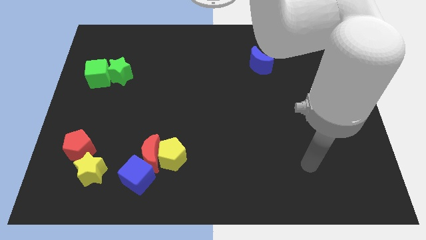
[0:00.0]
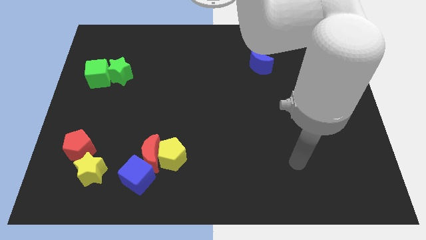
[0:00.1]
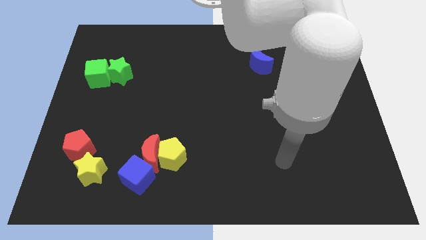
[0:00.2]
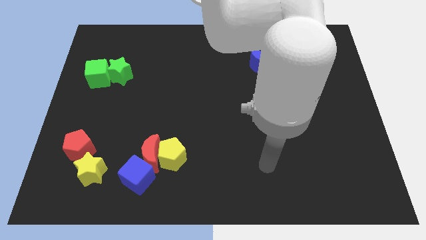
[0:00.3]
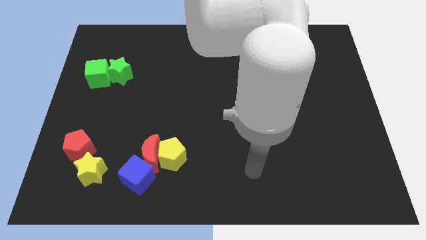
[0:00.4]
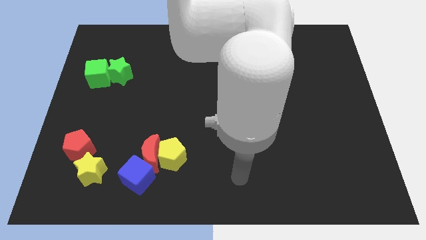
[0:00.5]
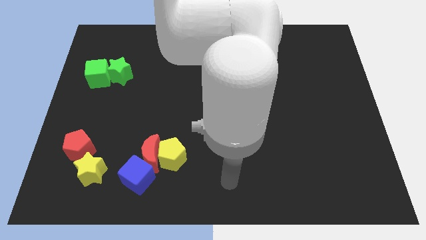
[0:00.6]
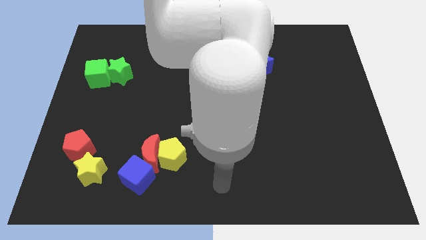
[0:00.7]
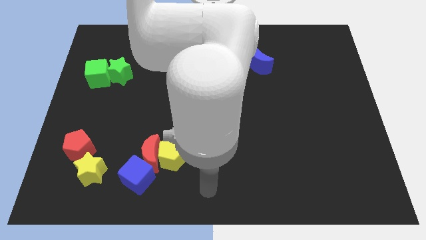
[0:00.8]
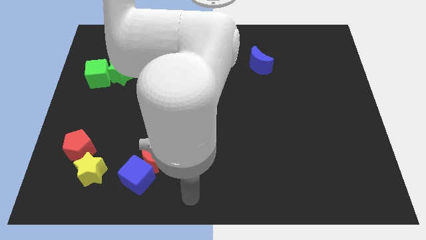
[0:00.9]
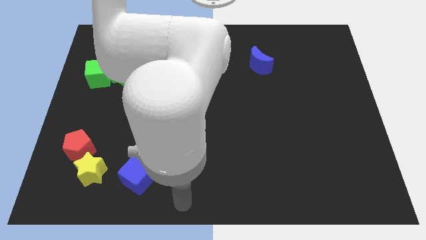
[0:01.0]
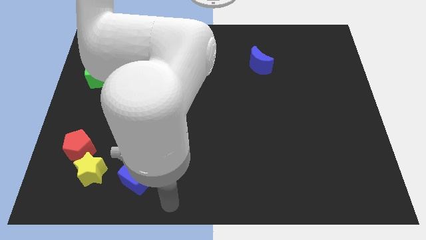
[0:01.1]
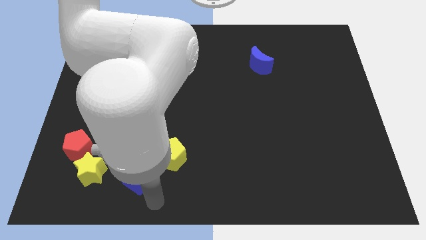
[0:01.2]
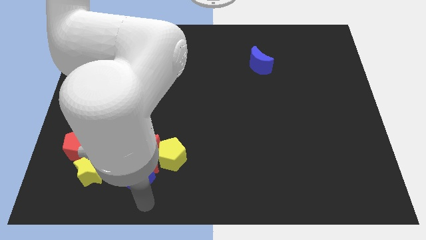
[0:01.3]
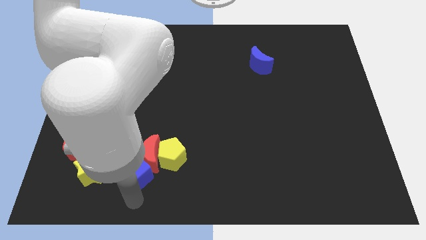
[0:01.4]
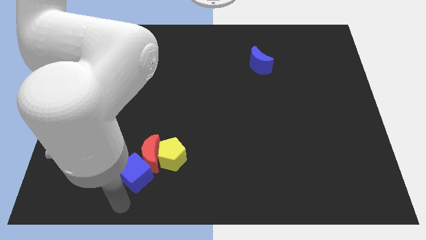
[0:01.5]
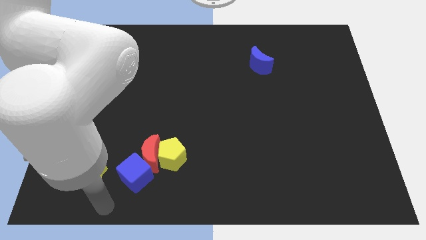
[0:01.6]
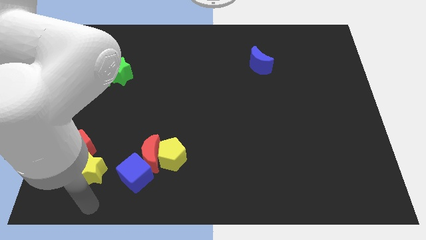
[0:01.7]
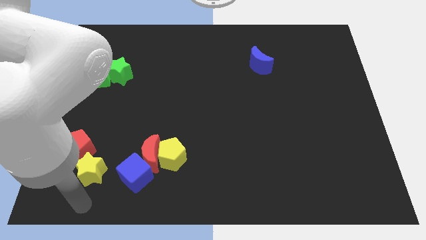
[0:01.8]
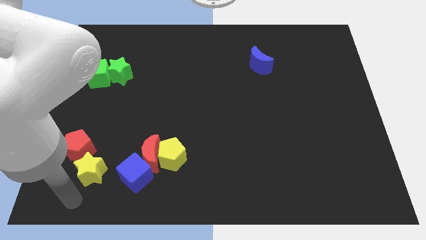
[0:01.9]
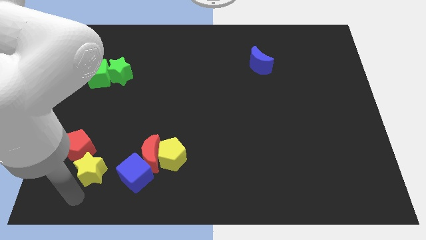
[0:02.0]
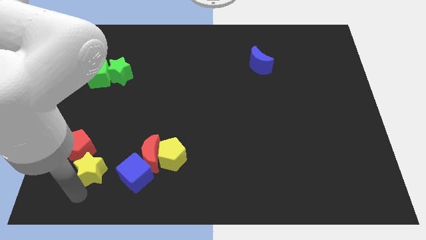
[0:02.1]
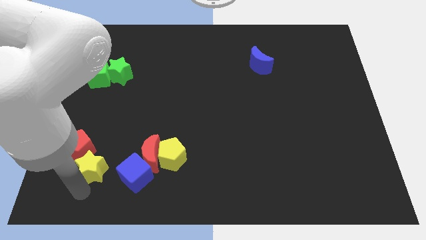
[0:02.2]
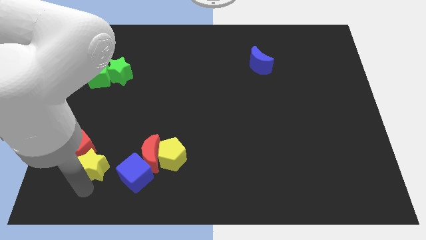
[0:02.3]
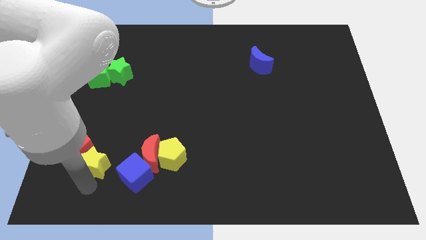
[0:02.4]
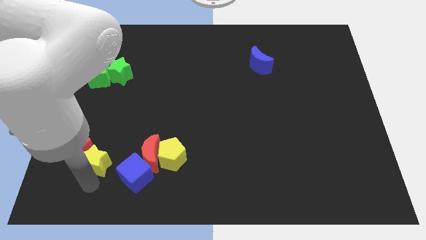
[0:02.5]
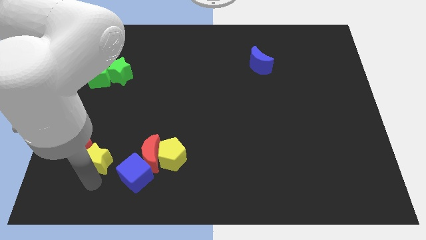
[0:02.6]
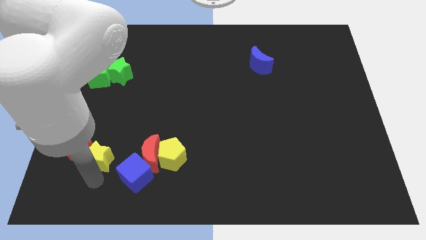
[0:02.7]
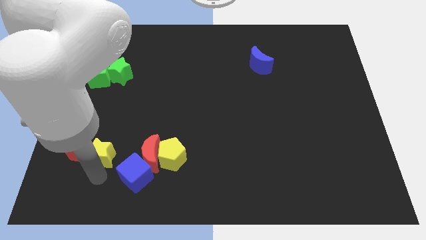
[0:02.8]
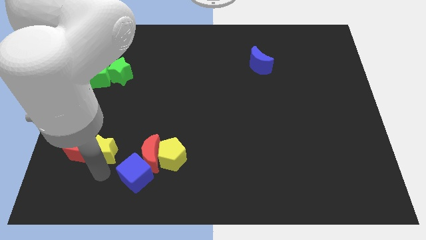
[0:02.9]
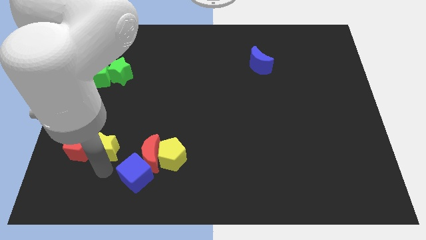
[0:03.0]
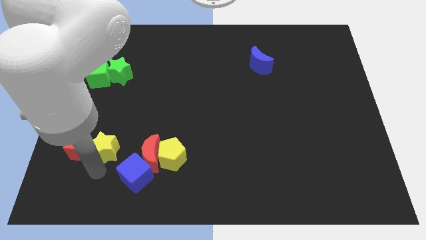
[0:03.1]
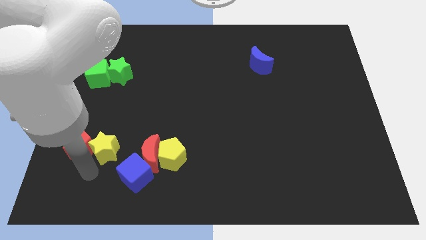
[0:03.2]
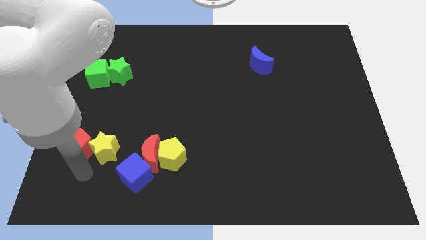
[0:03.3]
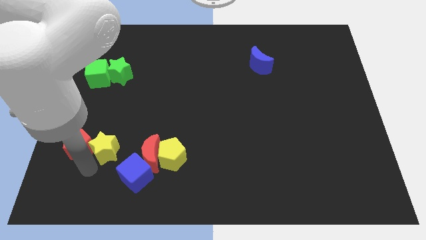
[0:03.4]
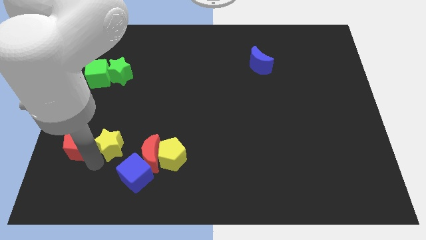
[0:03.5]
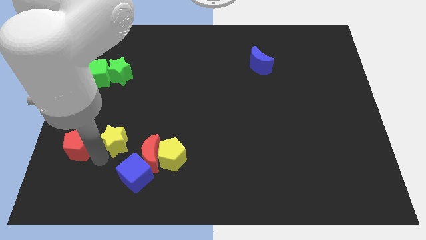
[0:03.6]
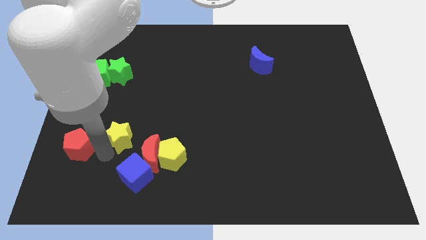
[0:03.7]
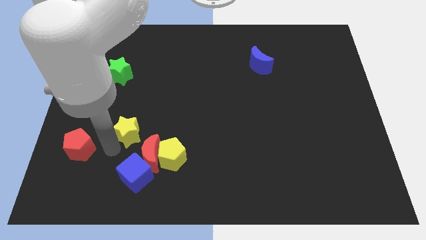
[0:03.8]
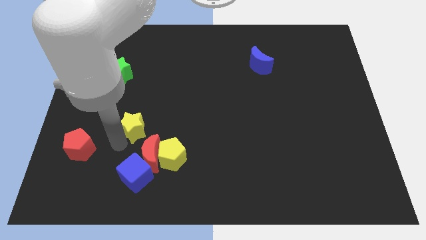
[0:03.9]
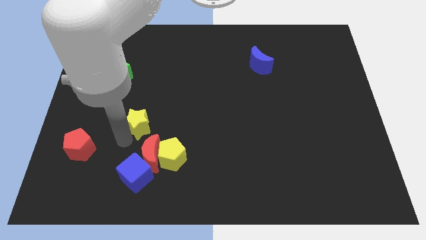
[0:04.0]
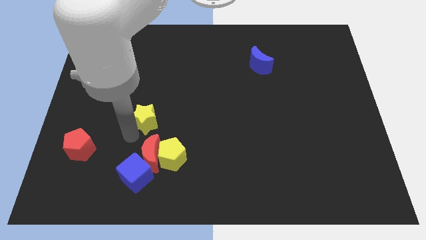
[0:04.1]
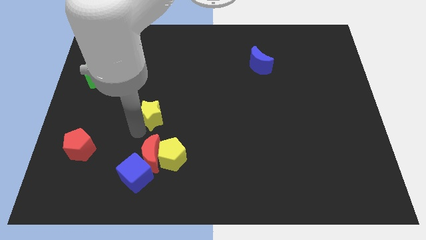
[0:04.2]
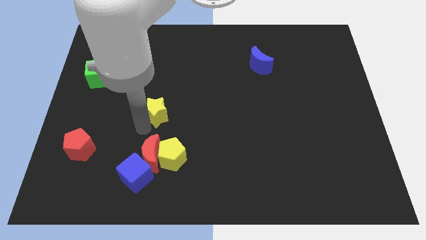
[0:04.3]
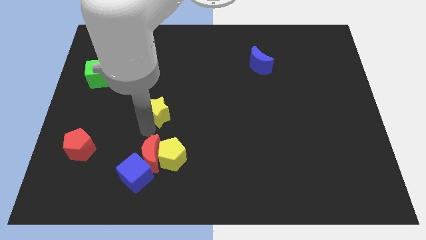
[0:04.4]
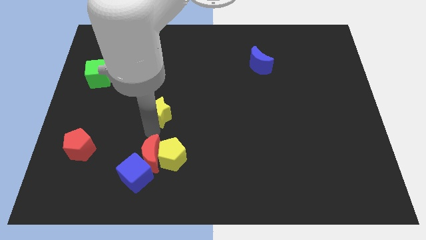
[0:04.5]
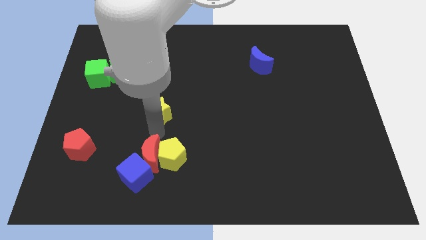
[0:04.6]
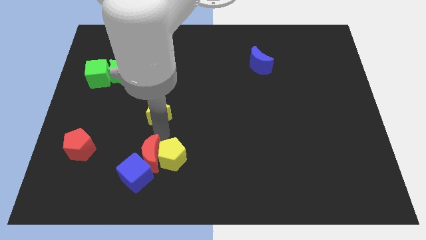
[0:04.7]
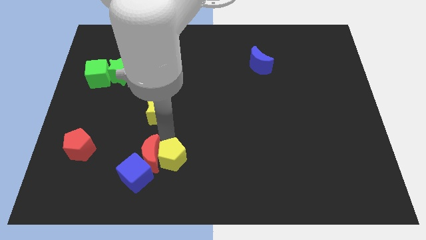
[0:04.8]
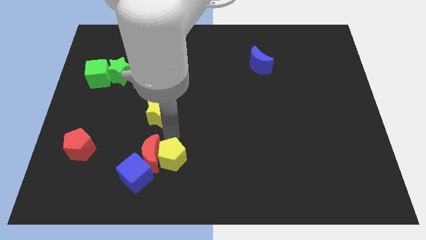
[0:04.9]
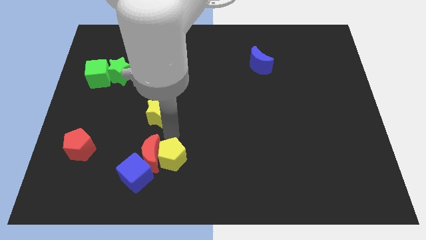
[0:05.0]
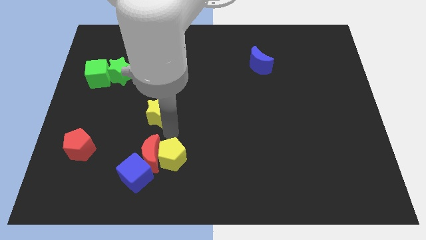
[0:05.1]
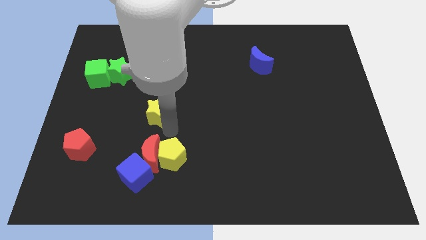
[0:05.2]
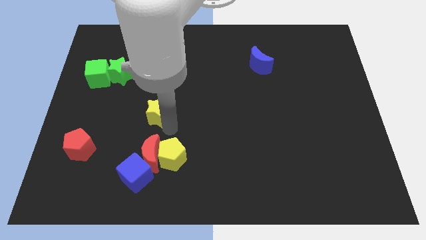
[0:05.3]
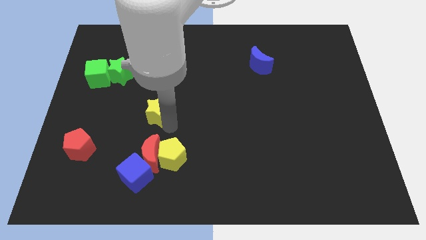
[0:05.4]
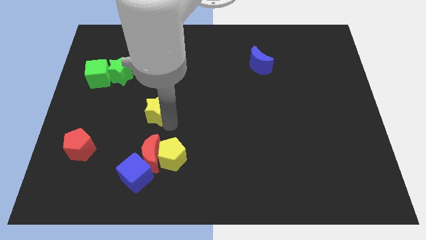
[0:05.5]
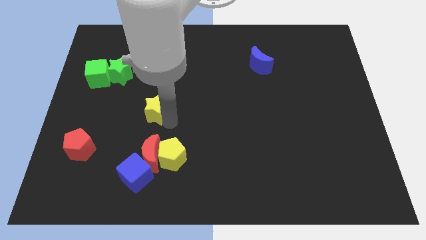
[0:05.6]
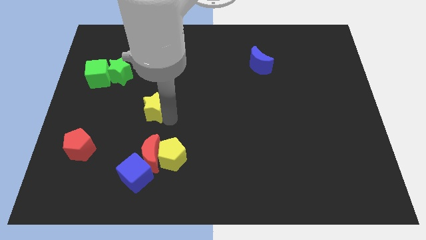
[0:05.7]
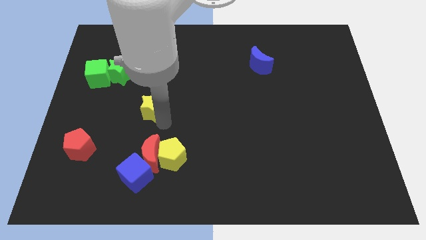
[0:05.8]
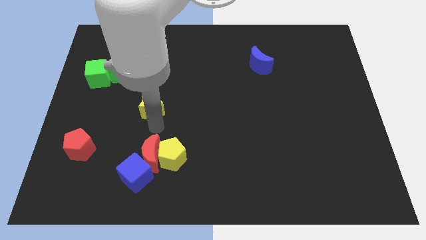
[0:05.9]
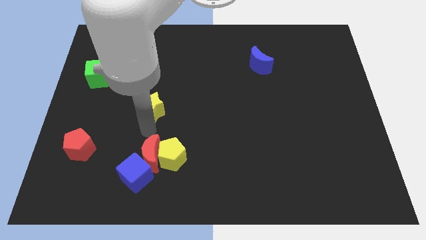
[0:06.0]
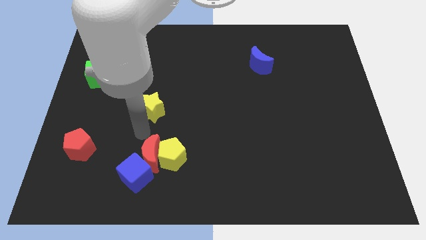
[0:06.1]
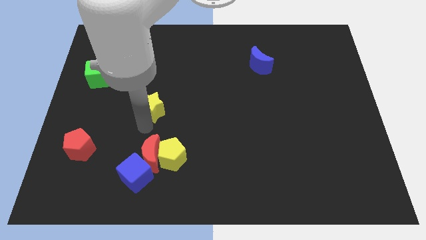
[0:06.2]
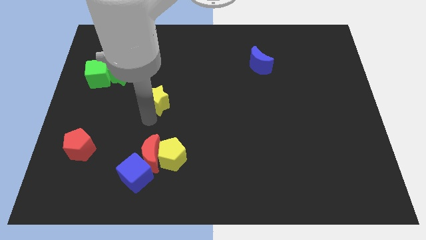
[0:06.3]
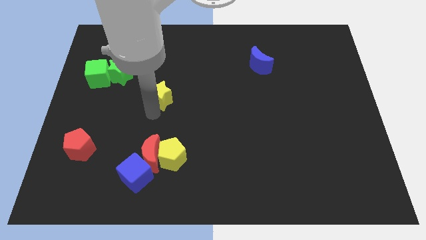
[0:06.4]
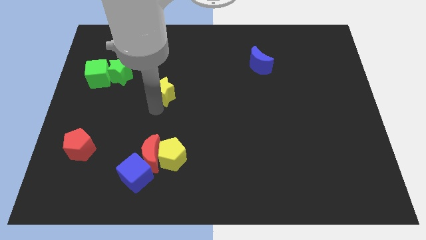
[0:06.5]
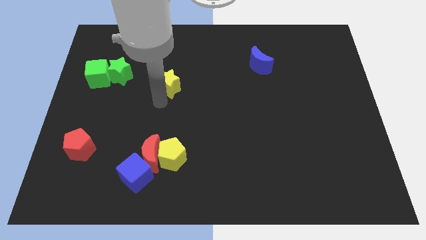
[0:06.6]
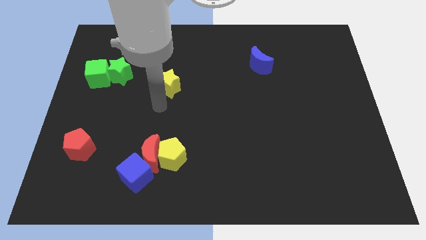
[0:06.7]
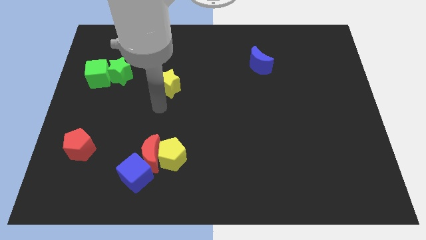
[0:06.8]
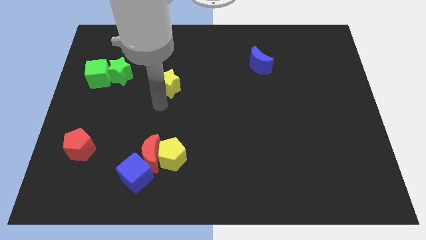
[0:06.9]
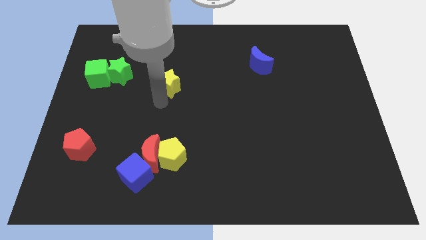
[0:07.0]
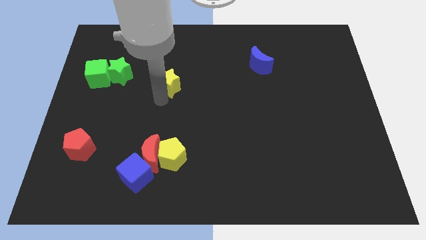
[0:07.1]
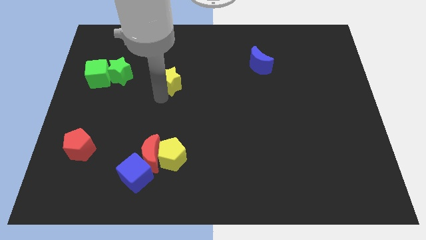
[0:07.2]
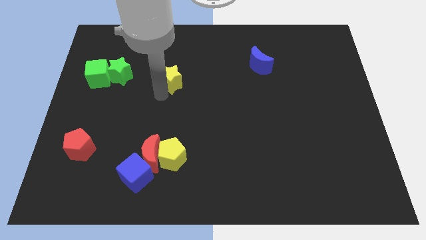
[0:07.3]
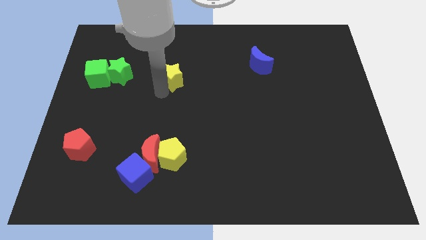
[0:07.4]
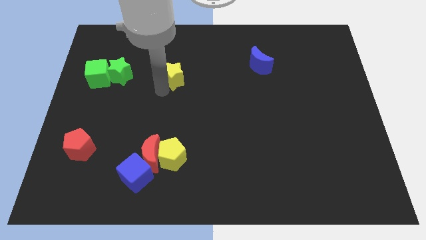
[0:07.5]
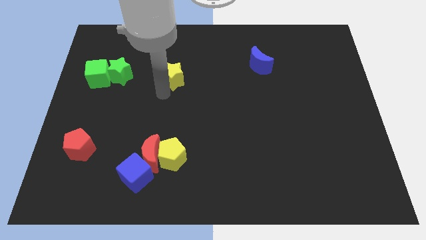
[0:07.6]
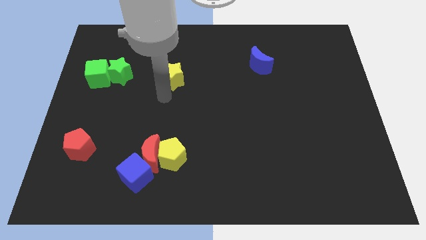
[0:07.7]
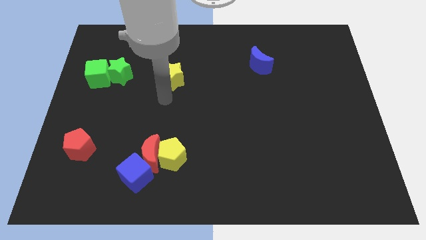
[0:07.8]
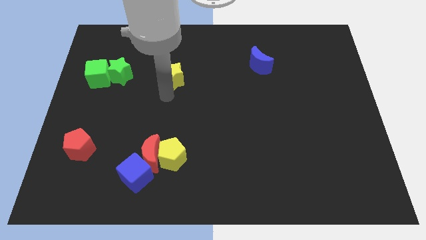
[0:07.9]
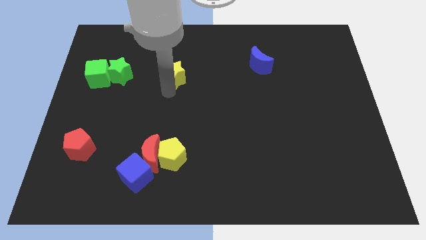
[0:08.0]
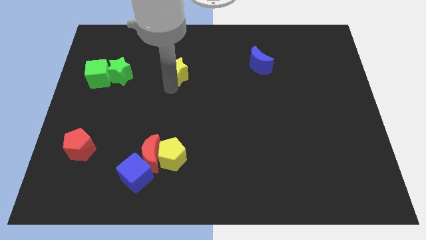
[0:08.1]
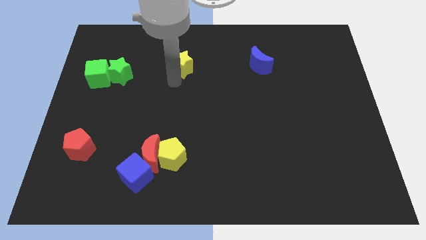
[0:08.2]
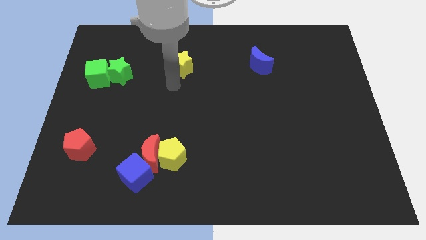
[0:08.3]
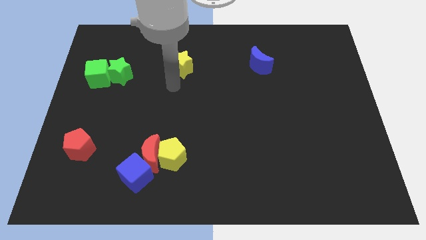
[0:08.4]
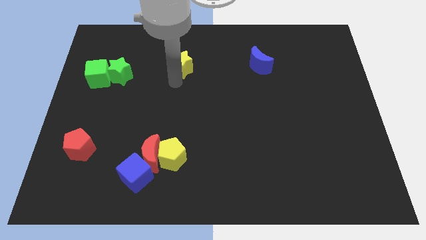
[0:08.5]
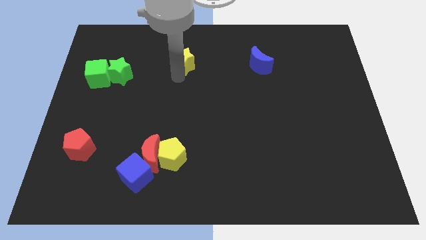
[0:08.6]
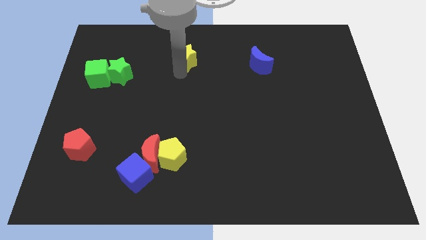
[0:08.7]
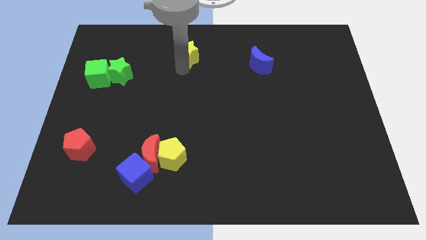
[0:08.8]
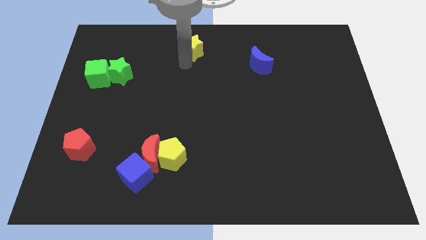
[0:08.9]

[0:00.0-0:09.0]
slide the yellow star to the towards your base
